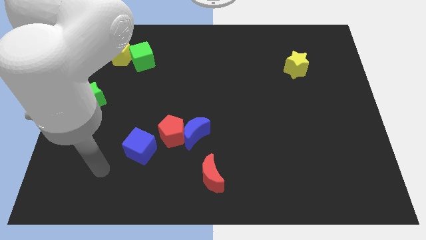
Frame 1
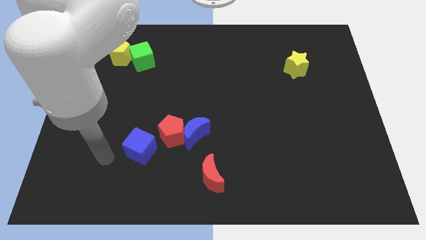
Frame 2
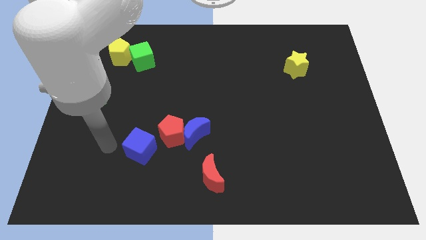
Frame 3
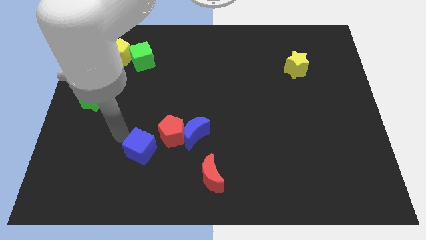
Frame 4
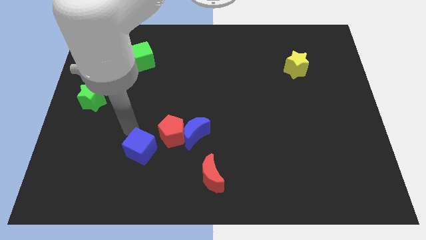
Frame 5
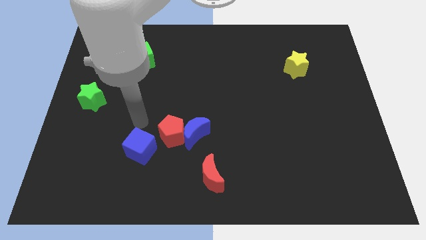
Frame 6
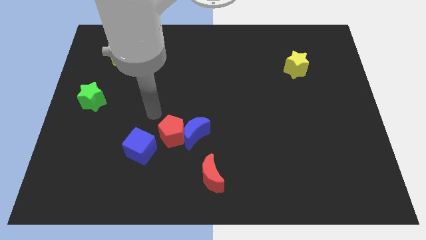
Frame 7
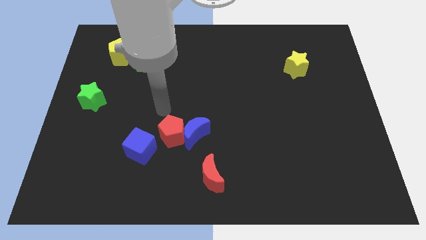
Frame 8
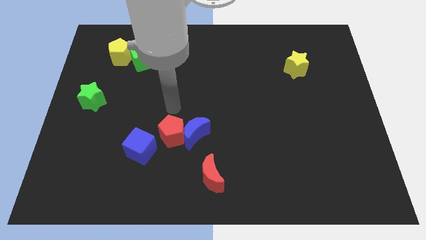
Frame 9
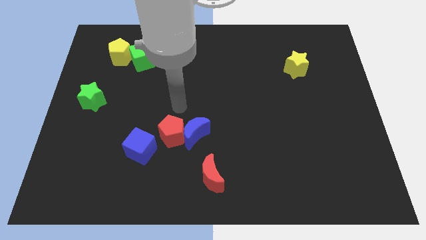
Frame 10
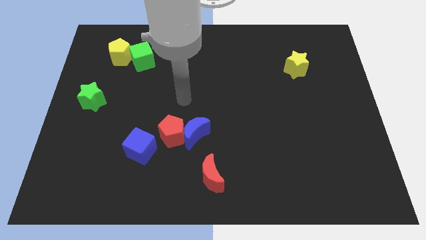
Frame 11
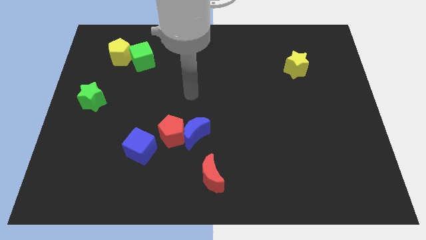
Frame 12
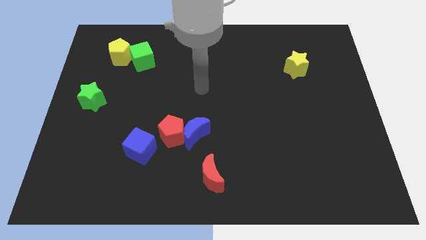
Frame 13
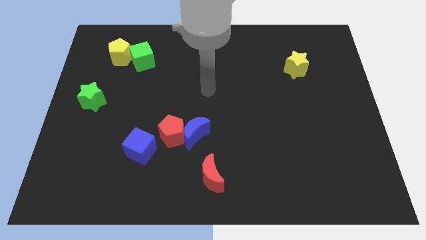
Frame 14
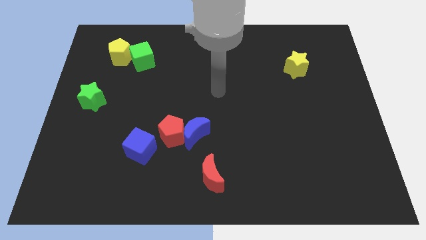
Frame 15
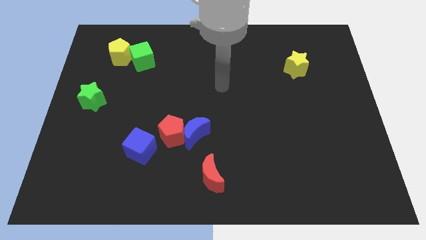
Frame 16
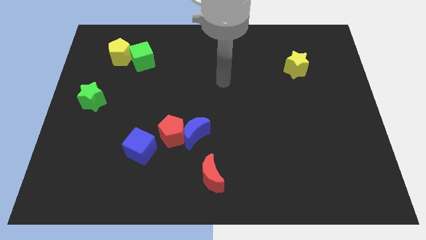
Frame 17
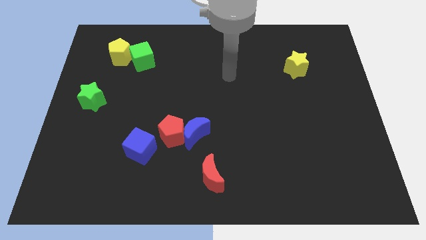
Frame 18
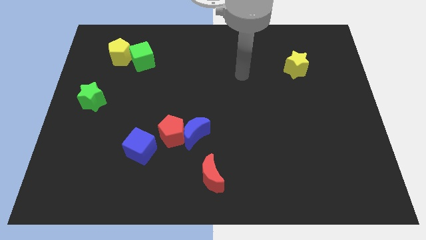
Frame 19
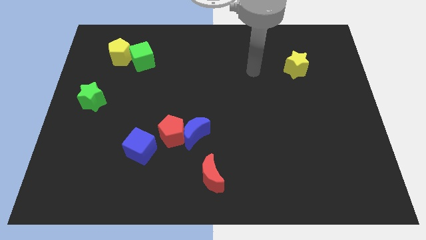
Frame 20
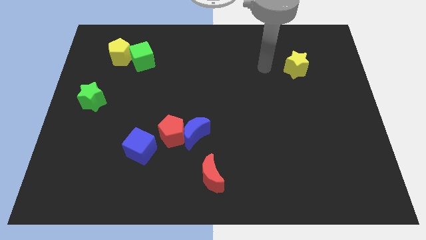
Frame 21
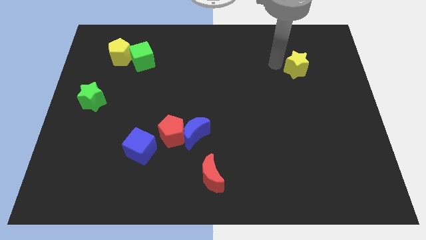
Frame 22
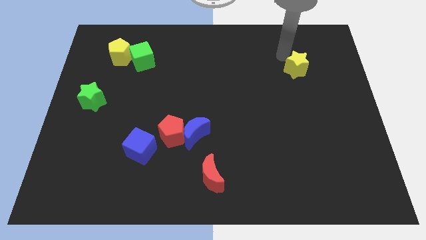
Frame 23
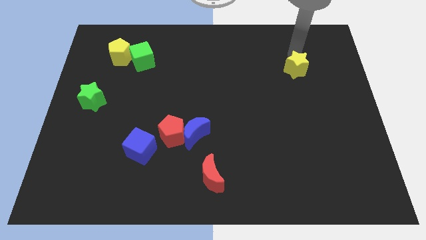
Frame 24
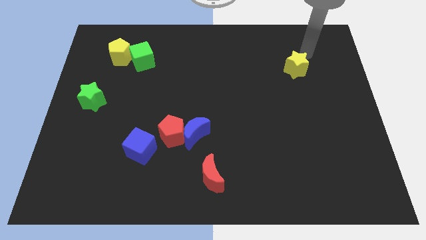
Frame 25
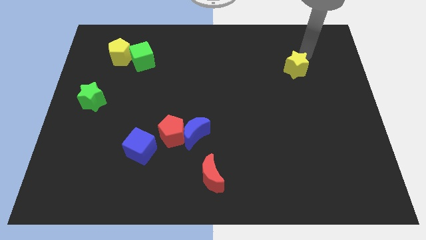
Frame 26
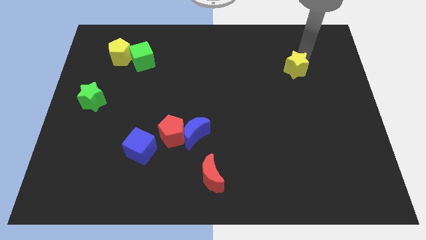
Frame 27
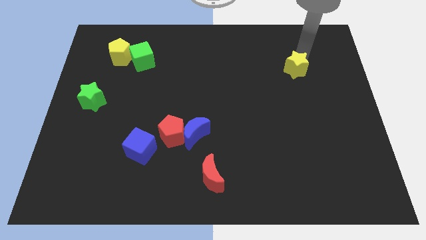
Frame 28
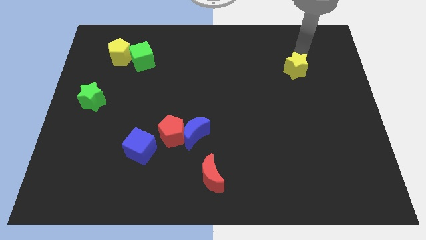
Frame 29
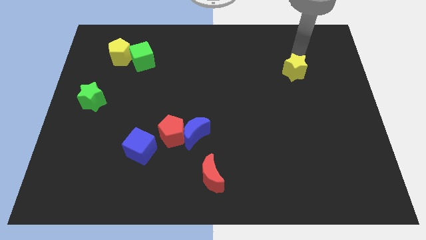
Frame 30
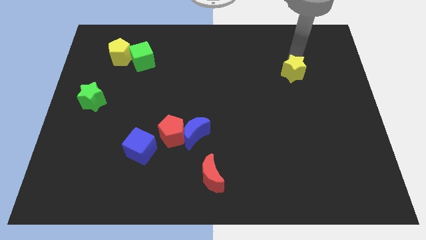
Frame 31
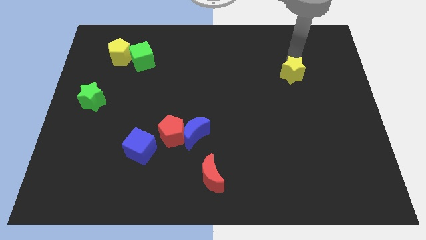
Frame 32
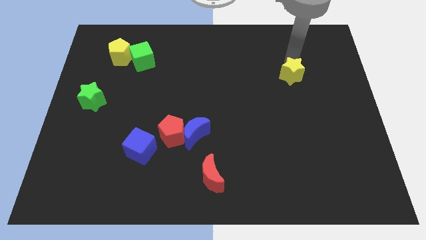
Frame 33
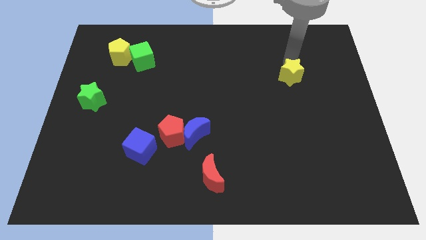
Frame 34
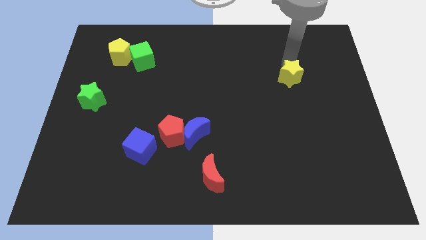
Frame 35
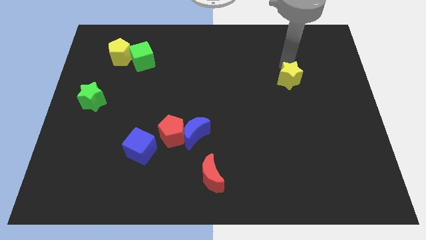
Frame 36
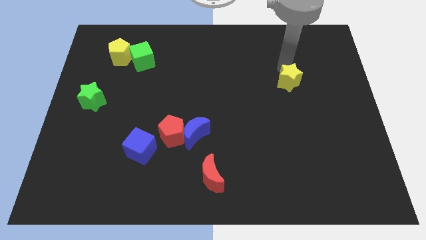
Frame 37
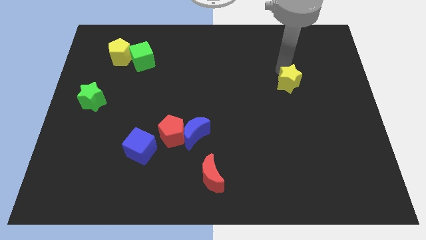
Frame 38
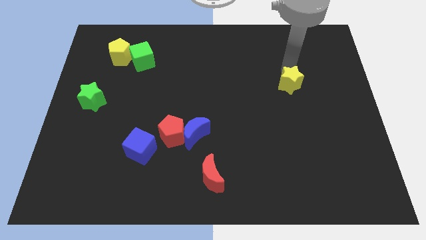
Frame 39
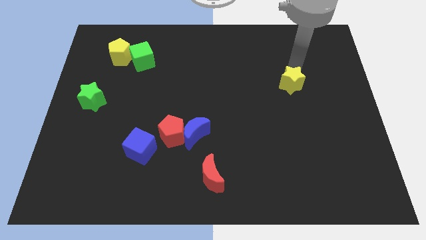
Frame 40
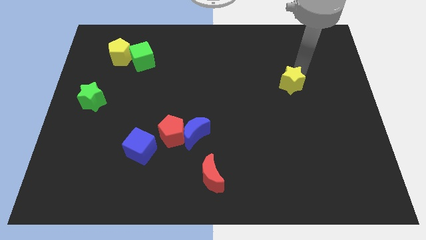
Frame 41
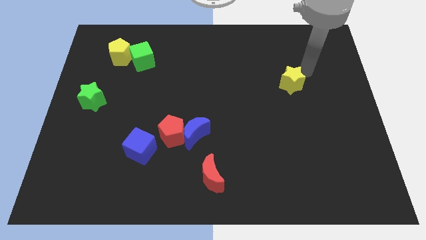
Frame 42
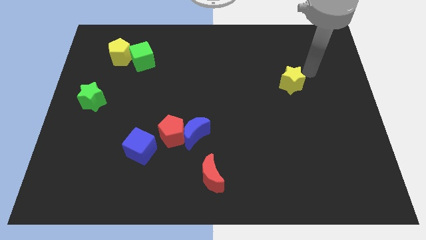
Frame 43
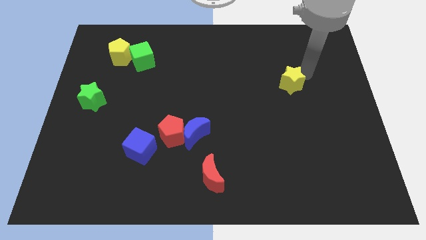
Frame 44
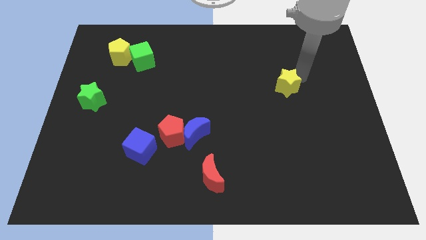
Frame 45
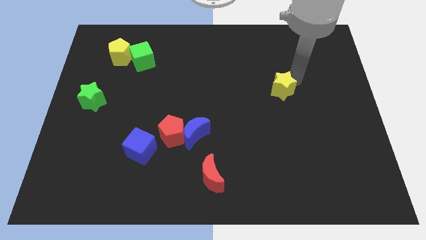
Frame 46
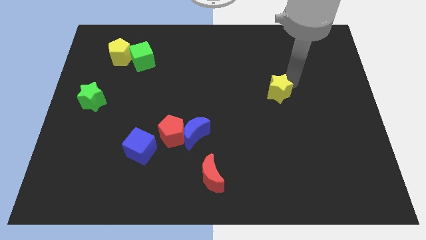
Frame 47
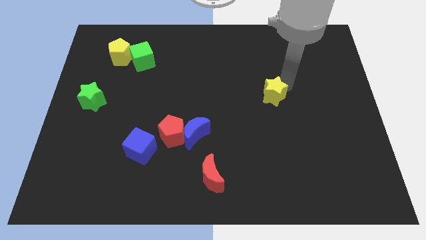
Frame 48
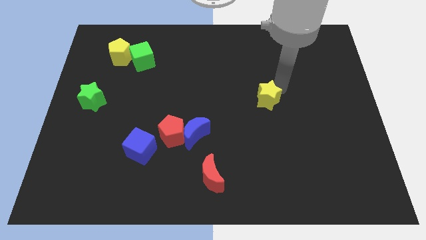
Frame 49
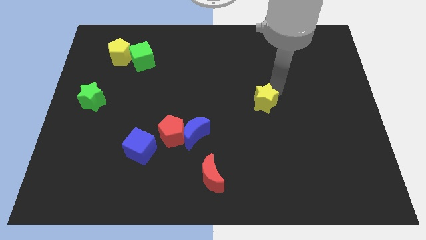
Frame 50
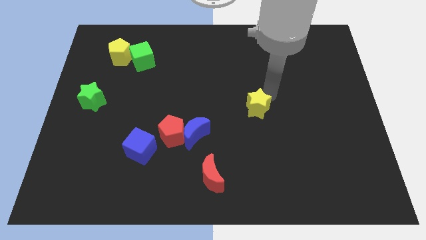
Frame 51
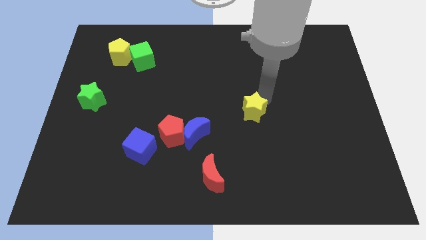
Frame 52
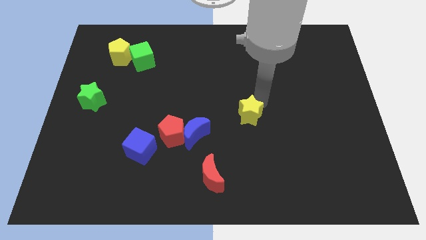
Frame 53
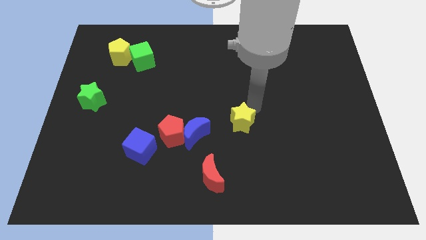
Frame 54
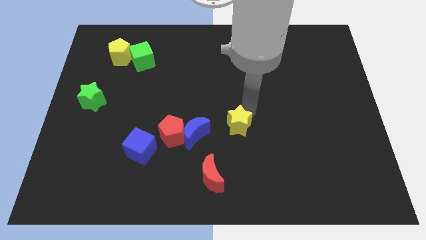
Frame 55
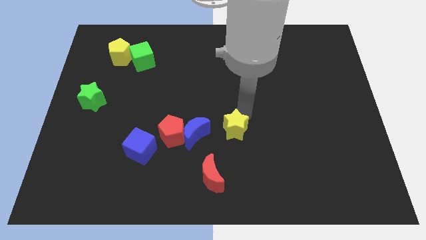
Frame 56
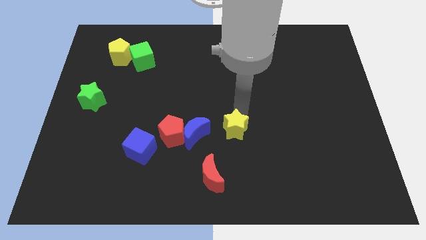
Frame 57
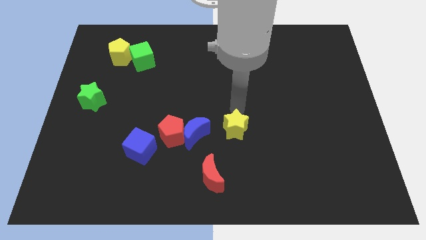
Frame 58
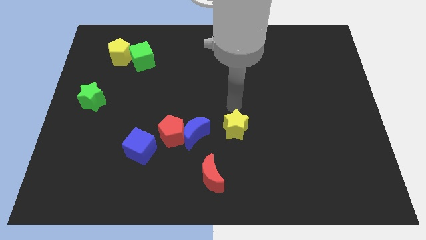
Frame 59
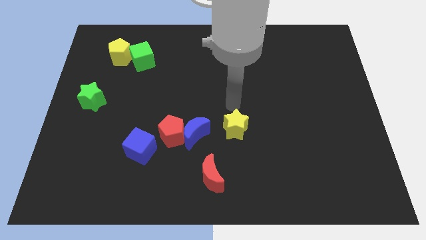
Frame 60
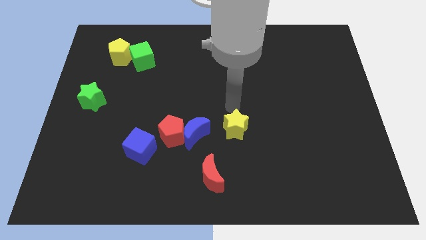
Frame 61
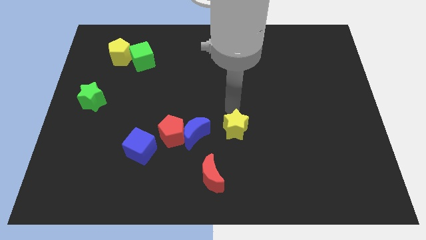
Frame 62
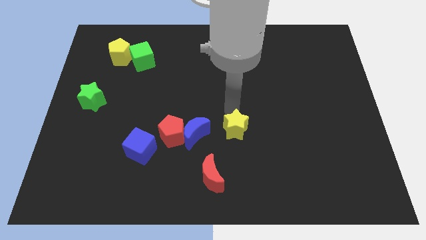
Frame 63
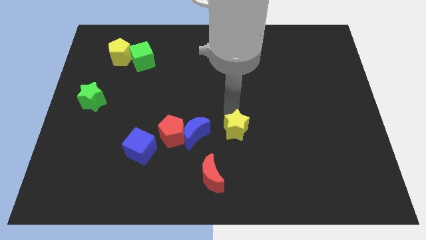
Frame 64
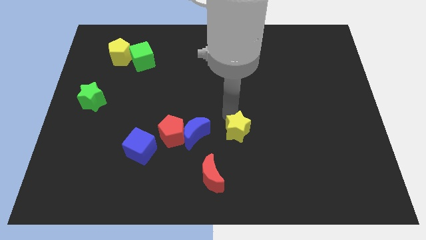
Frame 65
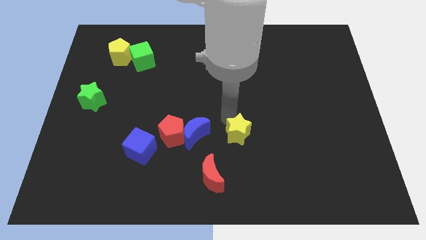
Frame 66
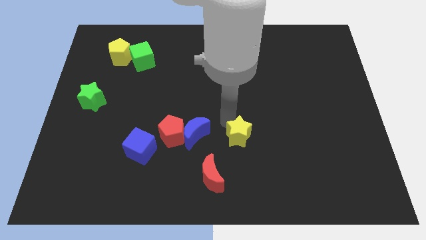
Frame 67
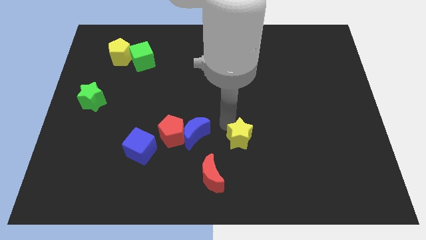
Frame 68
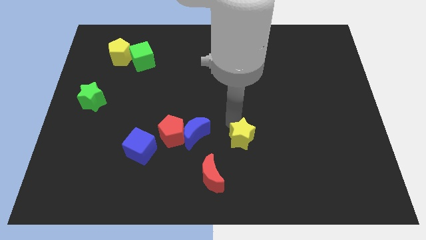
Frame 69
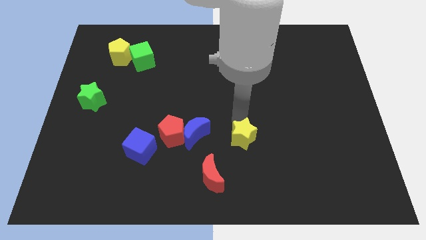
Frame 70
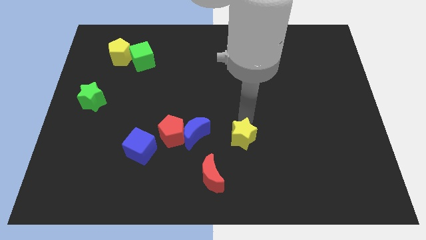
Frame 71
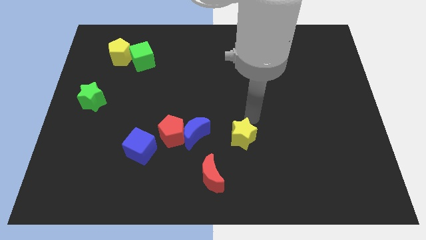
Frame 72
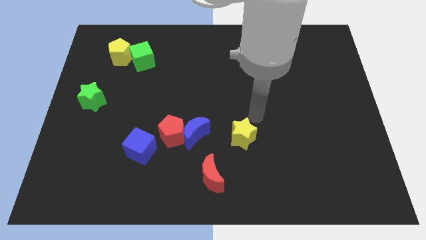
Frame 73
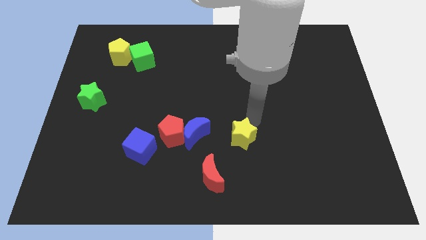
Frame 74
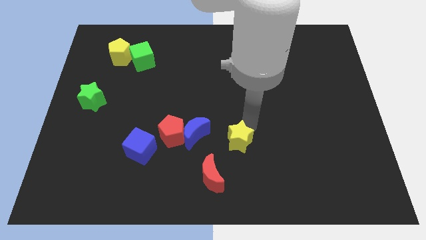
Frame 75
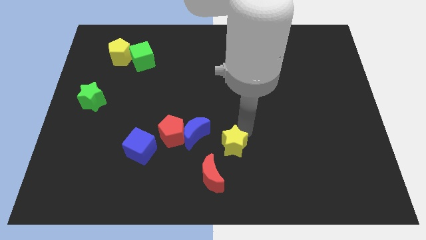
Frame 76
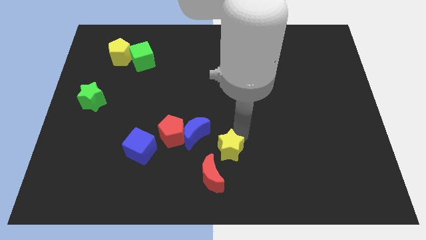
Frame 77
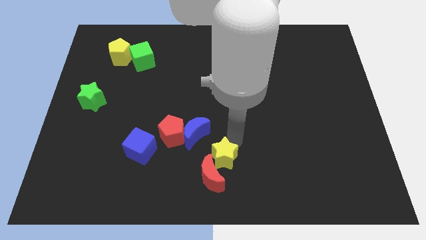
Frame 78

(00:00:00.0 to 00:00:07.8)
put the yellow star towards the red moon
